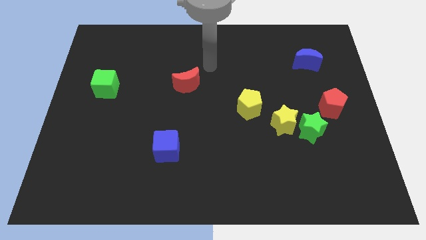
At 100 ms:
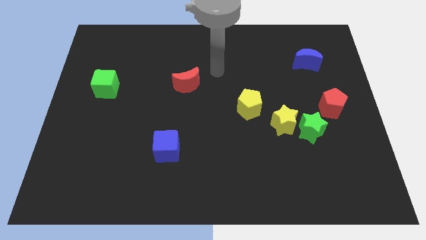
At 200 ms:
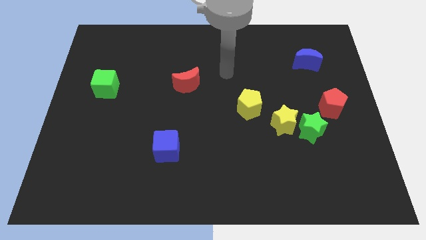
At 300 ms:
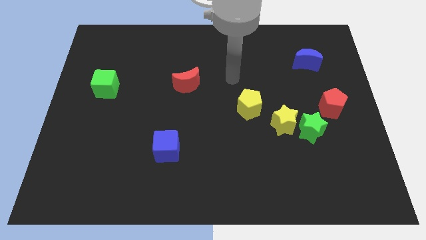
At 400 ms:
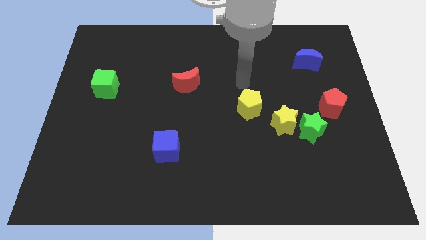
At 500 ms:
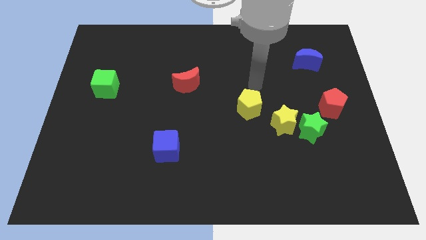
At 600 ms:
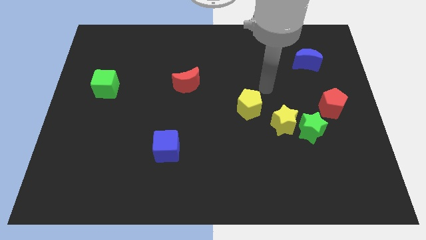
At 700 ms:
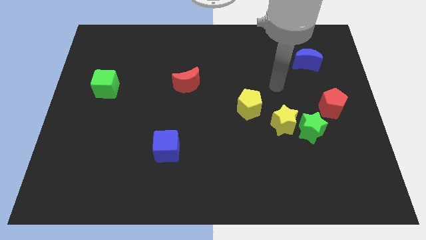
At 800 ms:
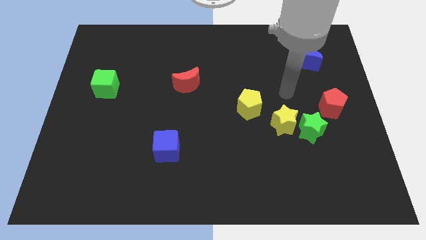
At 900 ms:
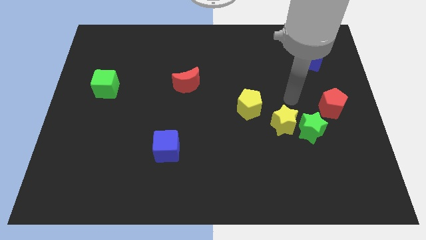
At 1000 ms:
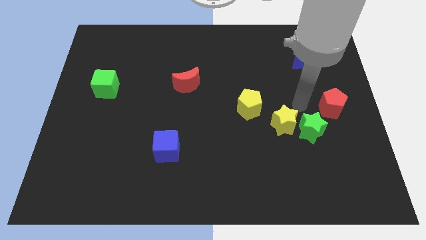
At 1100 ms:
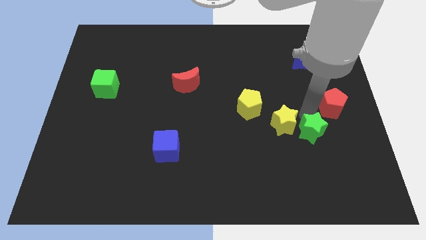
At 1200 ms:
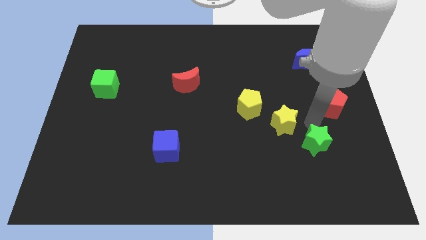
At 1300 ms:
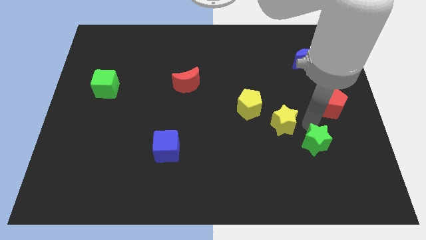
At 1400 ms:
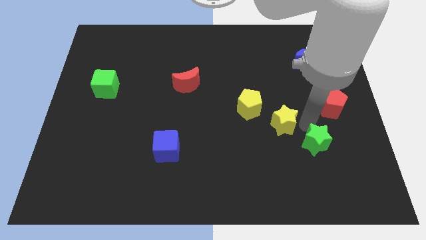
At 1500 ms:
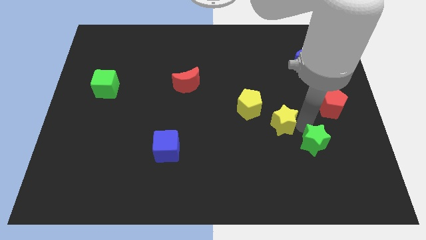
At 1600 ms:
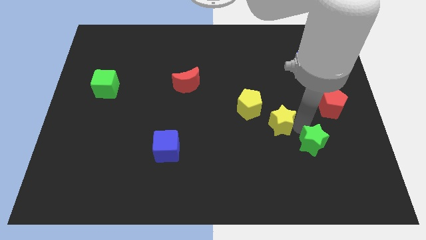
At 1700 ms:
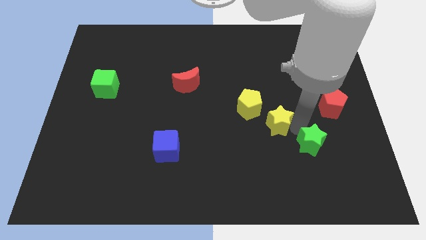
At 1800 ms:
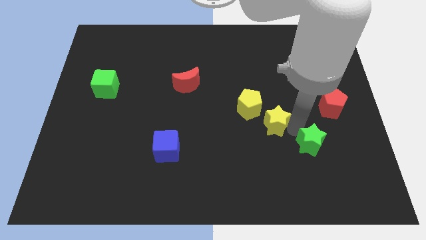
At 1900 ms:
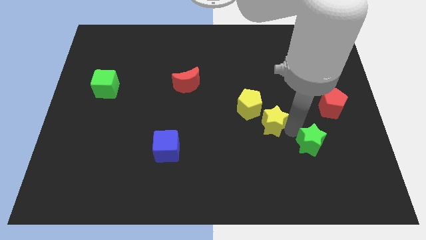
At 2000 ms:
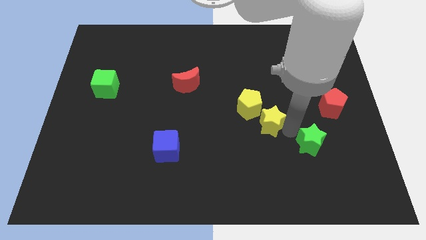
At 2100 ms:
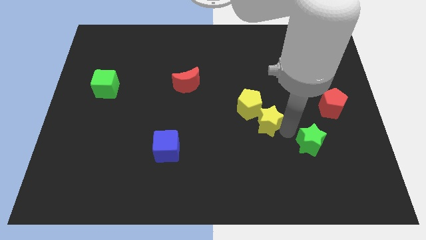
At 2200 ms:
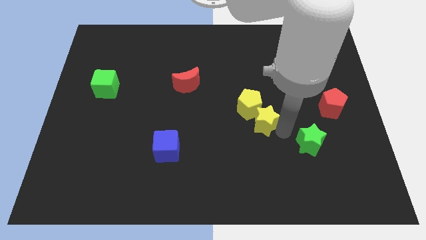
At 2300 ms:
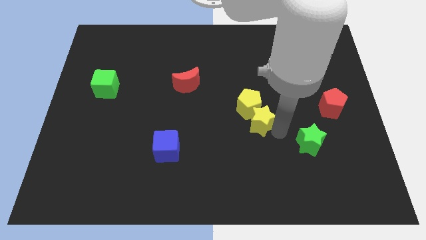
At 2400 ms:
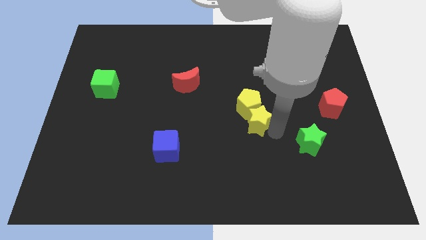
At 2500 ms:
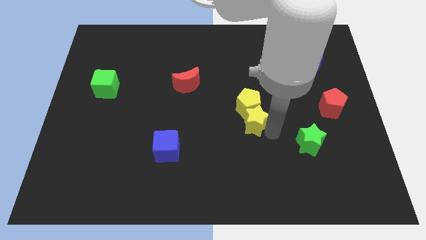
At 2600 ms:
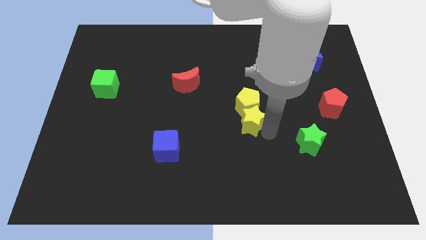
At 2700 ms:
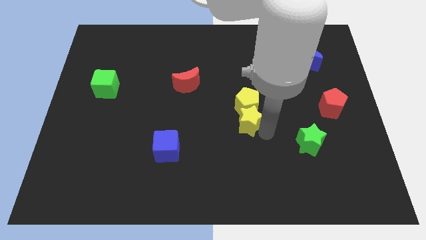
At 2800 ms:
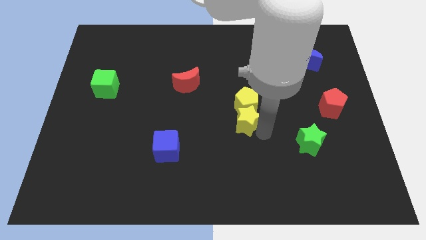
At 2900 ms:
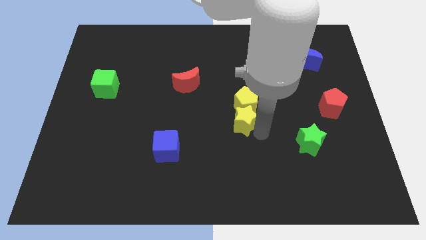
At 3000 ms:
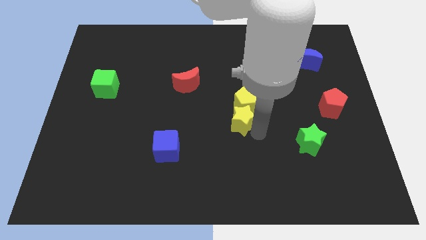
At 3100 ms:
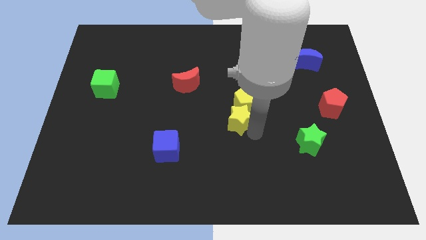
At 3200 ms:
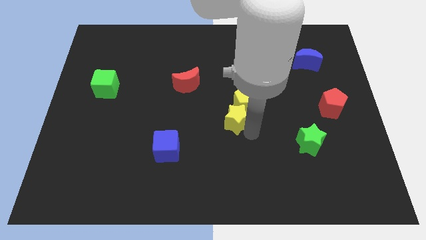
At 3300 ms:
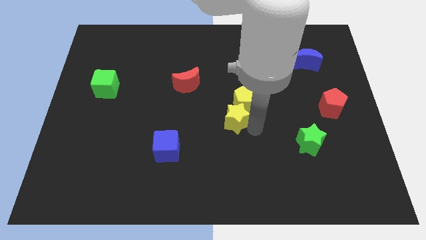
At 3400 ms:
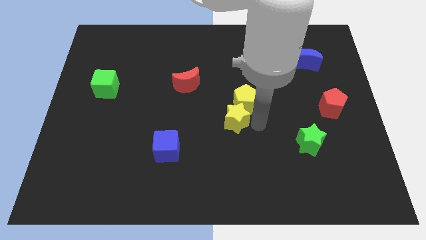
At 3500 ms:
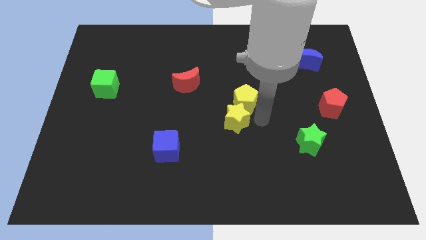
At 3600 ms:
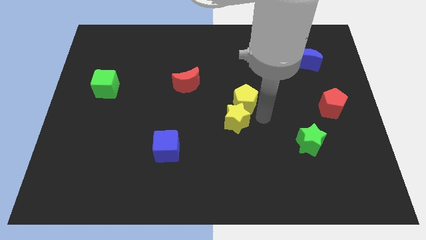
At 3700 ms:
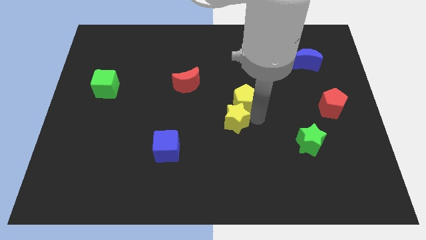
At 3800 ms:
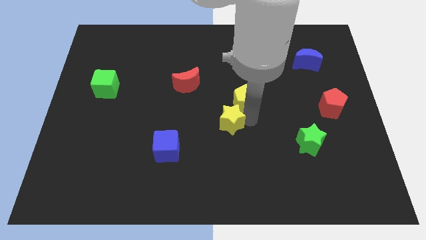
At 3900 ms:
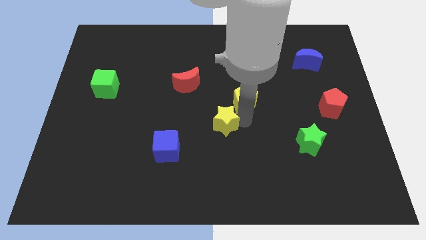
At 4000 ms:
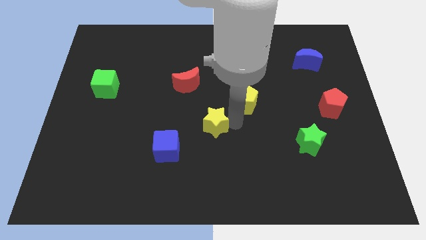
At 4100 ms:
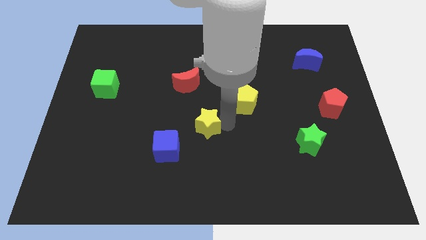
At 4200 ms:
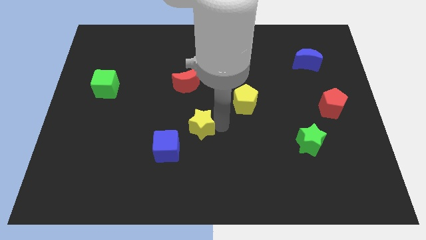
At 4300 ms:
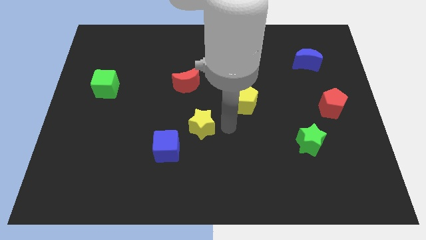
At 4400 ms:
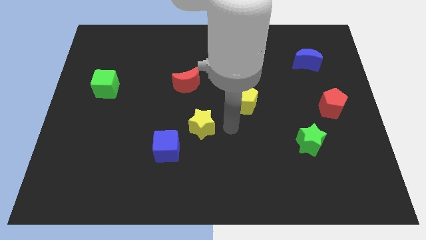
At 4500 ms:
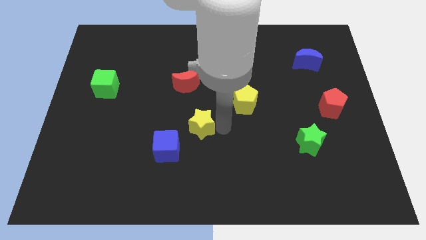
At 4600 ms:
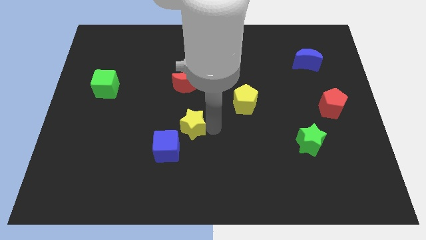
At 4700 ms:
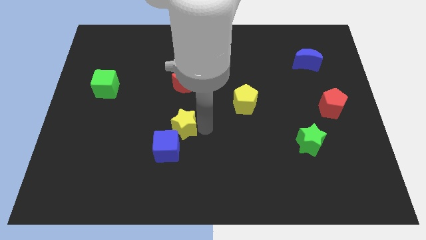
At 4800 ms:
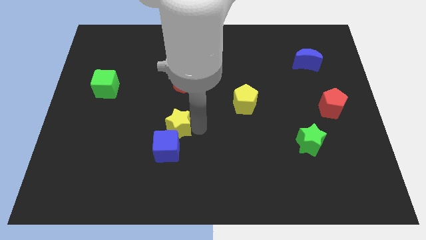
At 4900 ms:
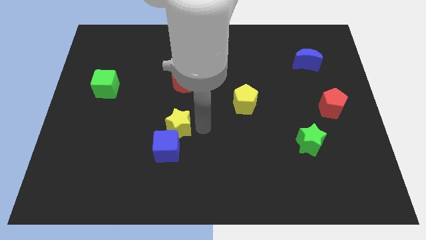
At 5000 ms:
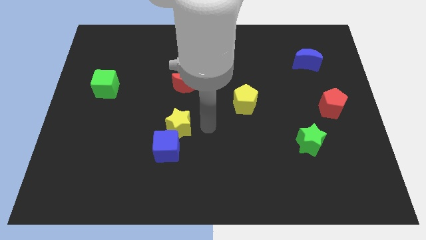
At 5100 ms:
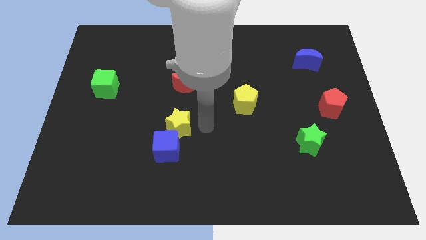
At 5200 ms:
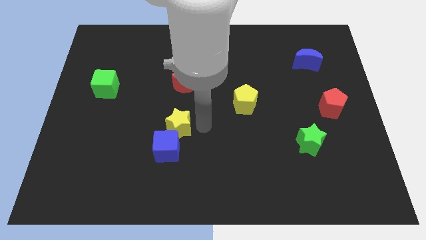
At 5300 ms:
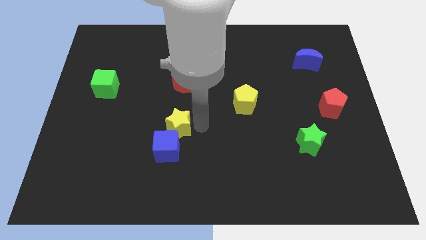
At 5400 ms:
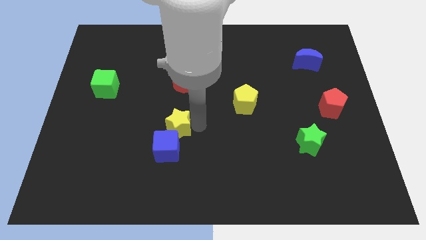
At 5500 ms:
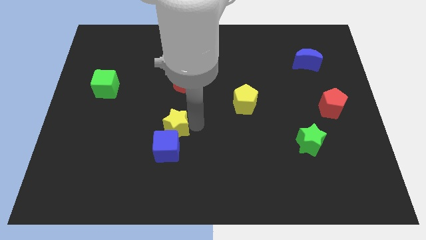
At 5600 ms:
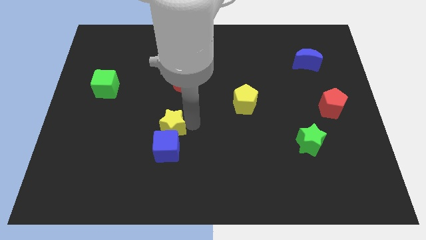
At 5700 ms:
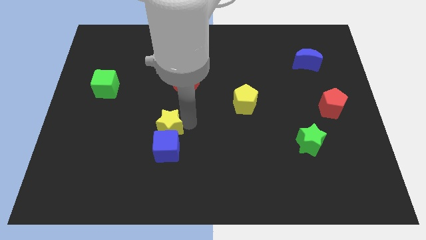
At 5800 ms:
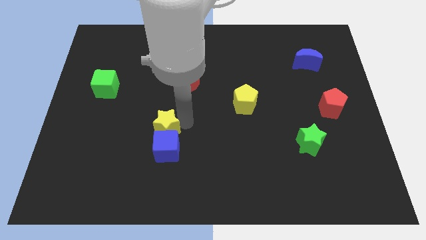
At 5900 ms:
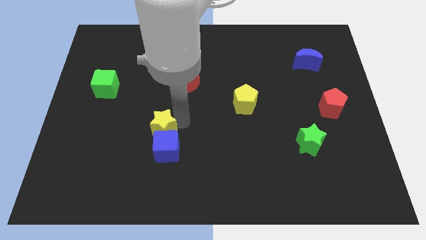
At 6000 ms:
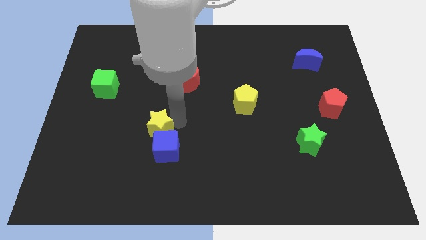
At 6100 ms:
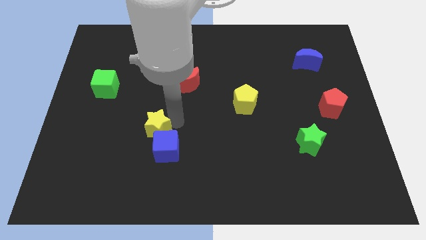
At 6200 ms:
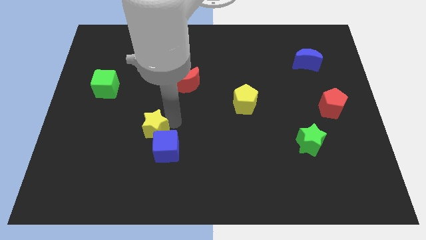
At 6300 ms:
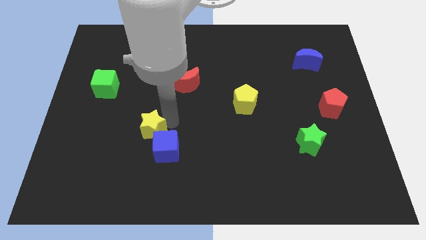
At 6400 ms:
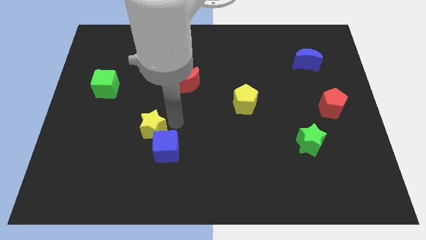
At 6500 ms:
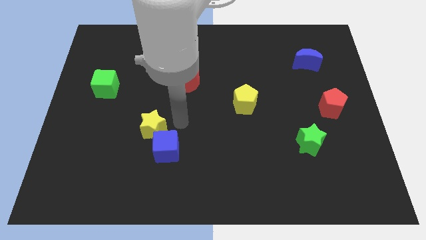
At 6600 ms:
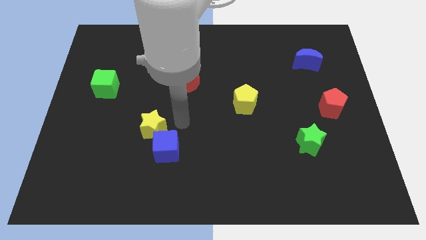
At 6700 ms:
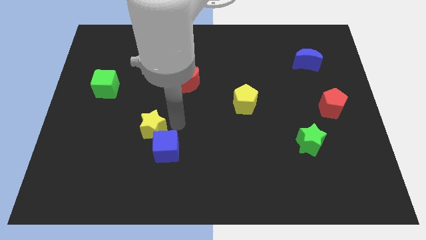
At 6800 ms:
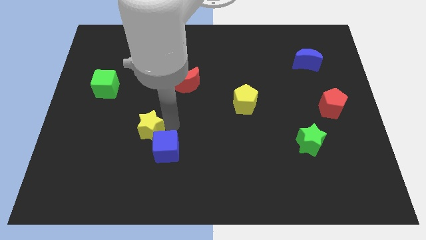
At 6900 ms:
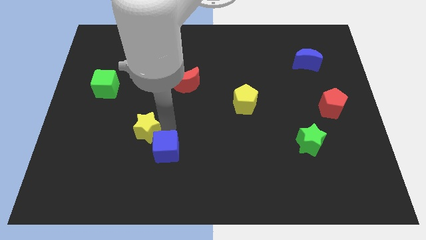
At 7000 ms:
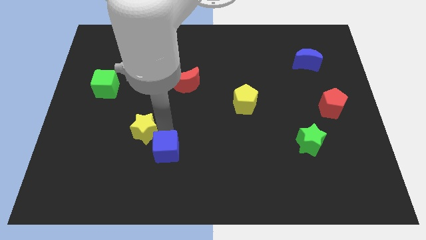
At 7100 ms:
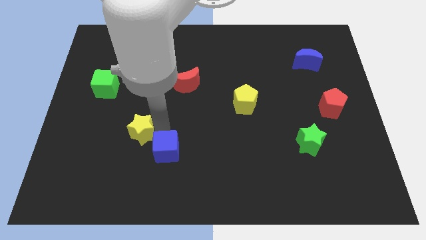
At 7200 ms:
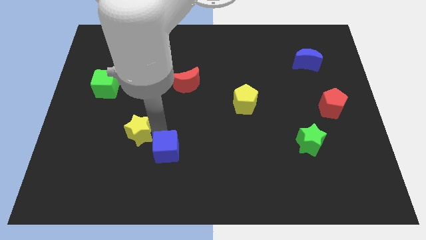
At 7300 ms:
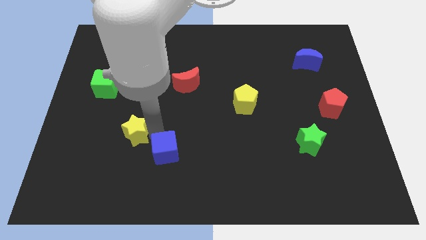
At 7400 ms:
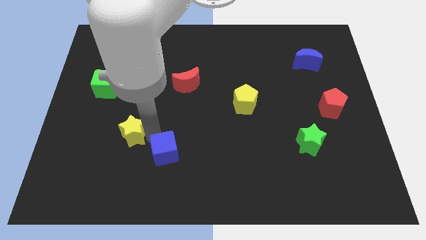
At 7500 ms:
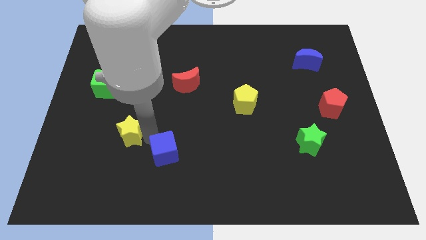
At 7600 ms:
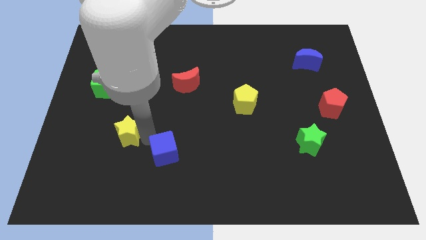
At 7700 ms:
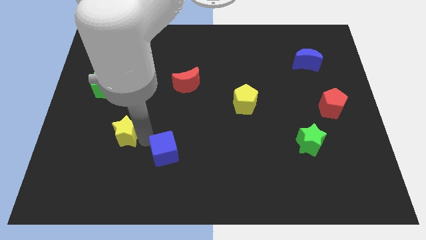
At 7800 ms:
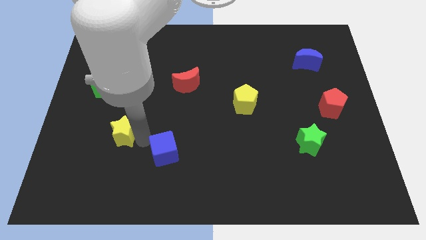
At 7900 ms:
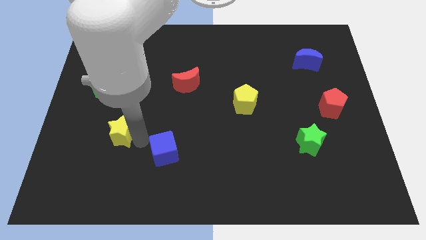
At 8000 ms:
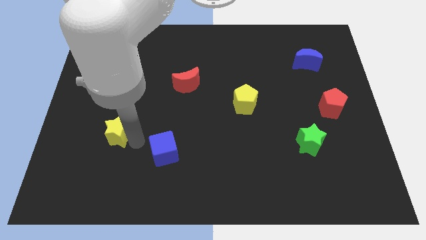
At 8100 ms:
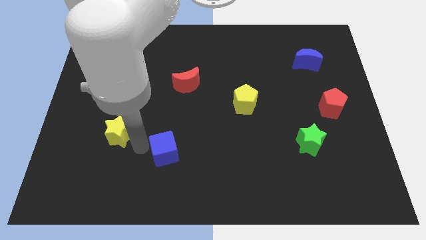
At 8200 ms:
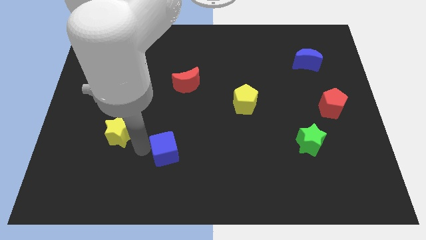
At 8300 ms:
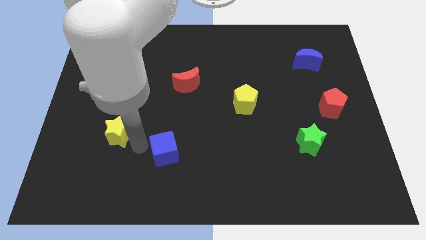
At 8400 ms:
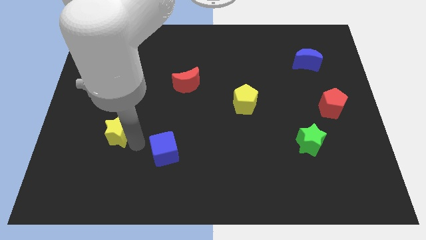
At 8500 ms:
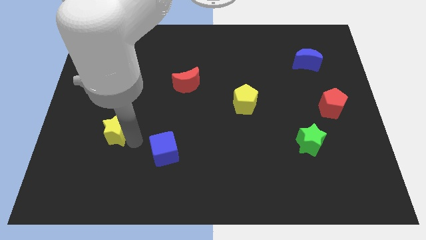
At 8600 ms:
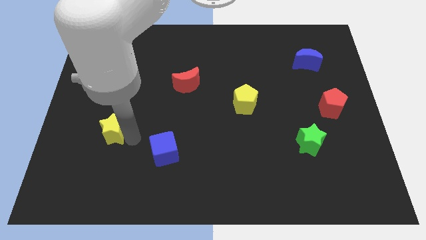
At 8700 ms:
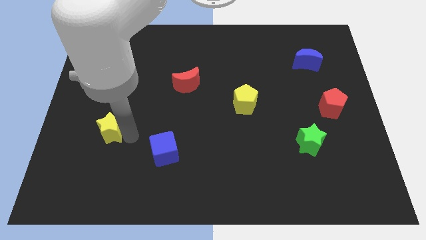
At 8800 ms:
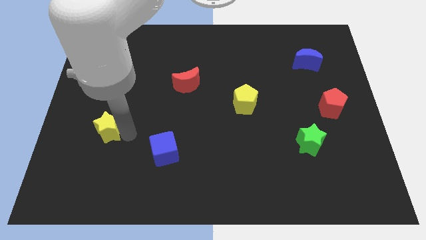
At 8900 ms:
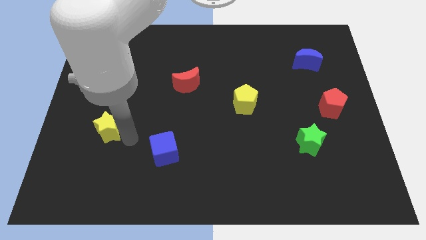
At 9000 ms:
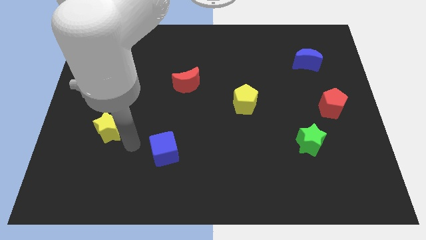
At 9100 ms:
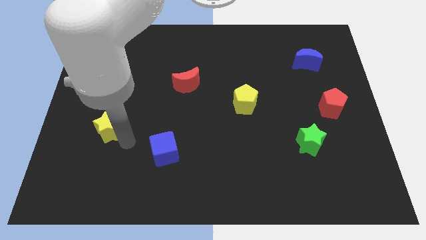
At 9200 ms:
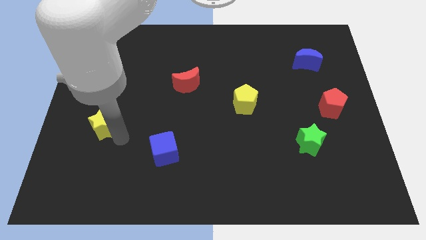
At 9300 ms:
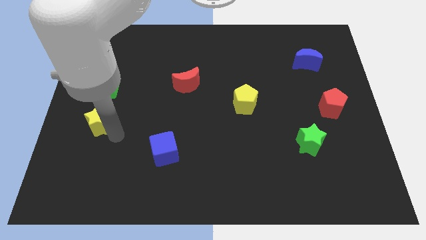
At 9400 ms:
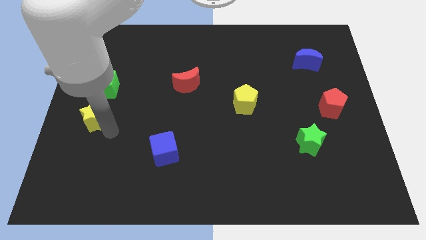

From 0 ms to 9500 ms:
move the yellow star to the left side
